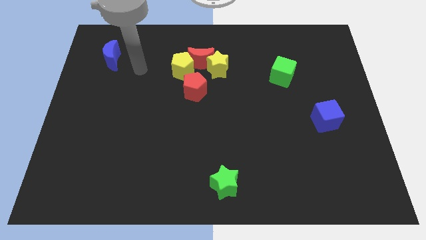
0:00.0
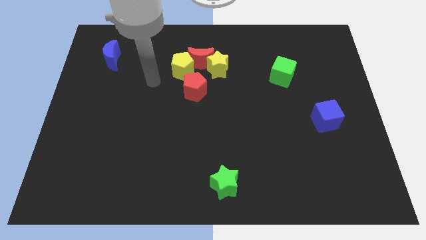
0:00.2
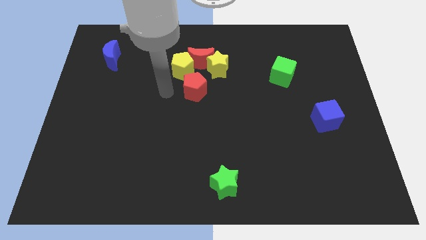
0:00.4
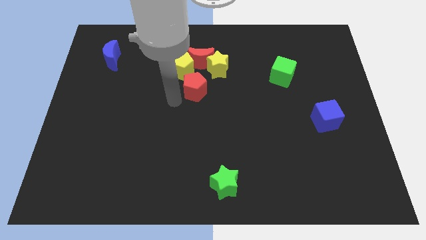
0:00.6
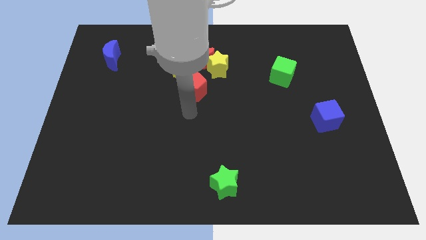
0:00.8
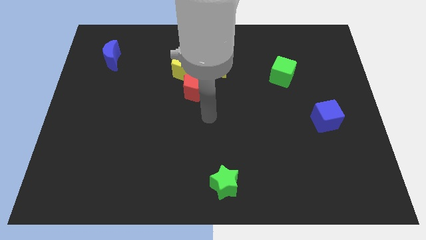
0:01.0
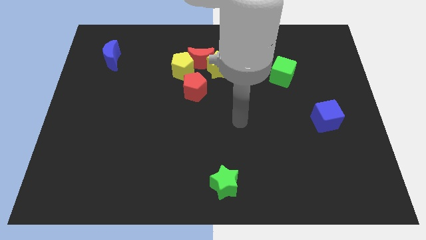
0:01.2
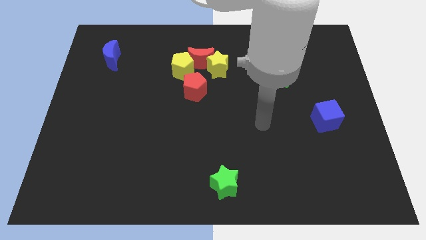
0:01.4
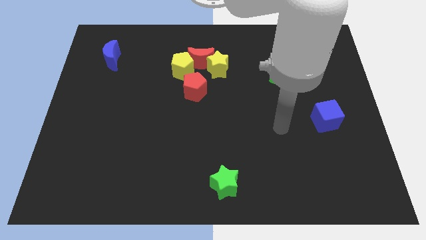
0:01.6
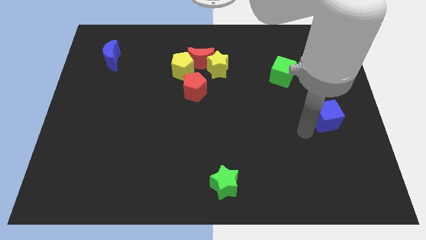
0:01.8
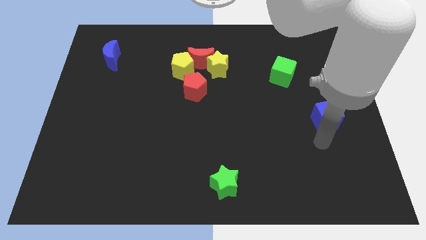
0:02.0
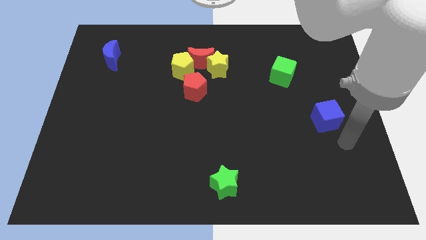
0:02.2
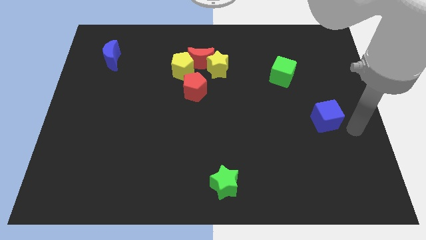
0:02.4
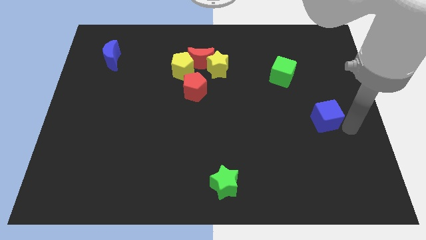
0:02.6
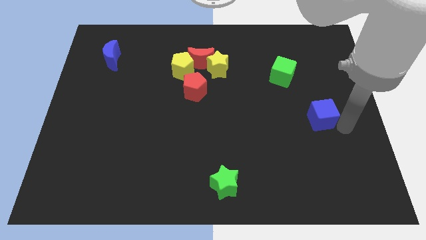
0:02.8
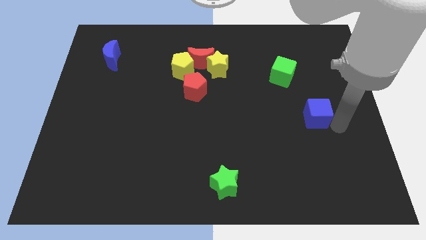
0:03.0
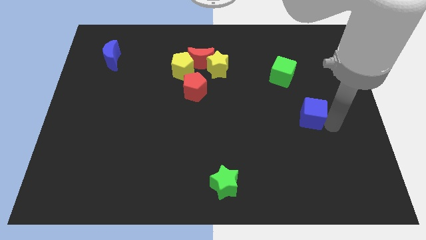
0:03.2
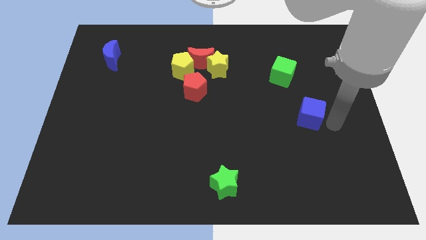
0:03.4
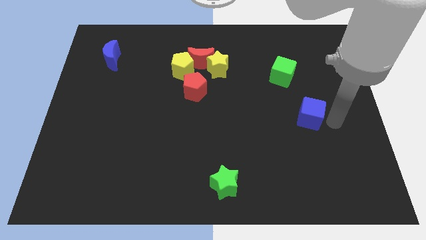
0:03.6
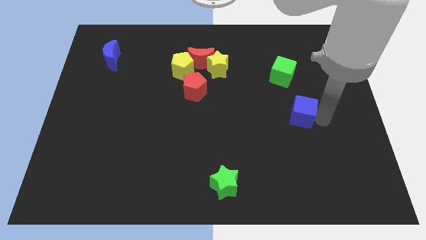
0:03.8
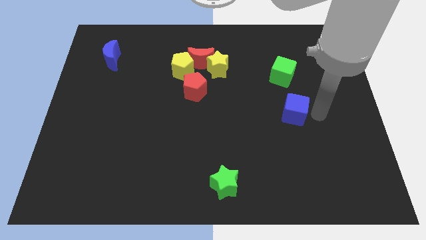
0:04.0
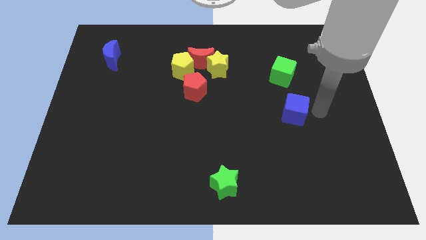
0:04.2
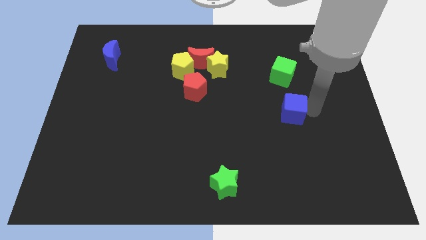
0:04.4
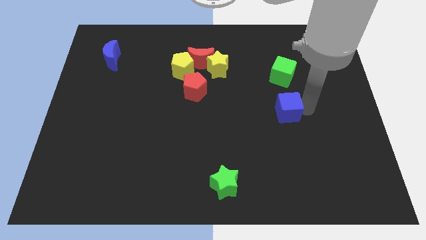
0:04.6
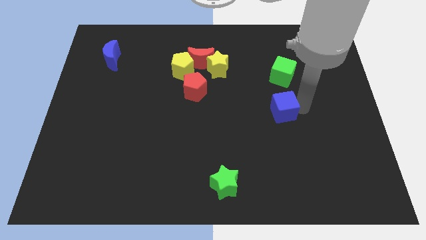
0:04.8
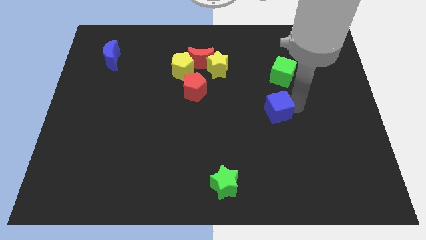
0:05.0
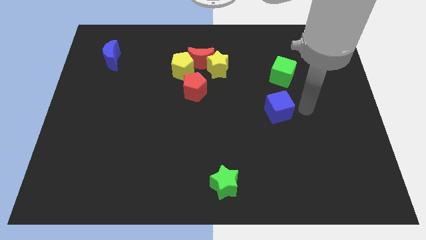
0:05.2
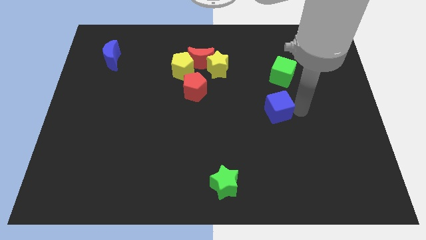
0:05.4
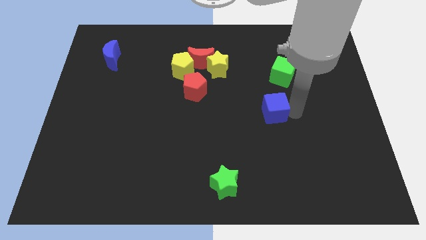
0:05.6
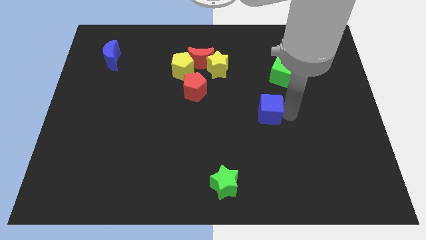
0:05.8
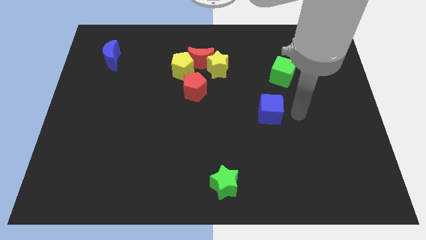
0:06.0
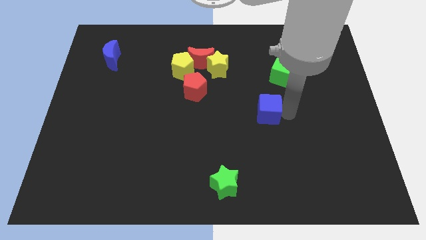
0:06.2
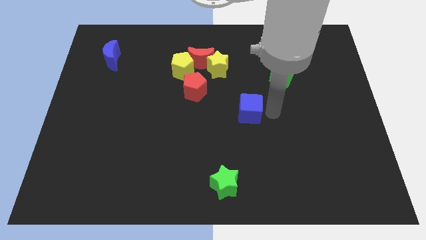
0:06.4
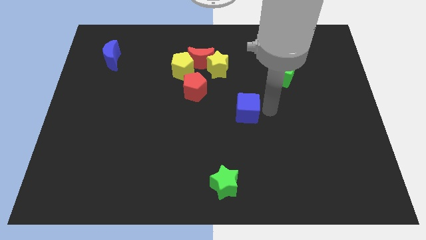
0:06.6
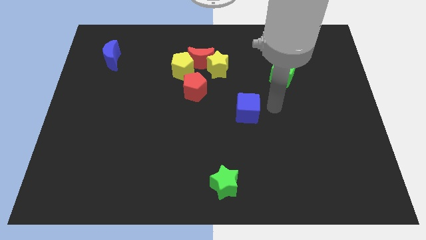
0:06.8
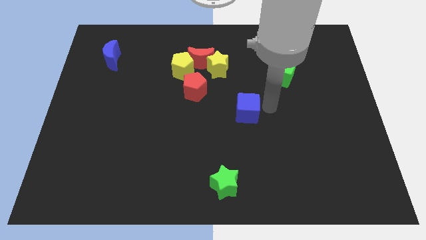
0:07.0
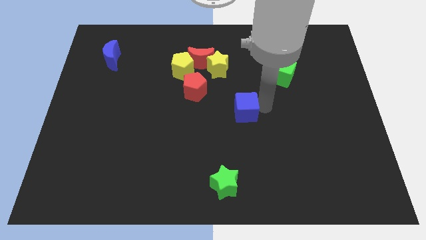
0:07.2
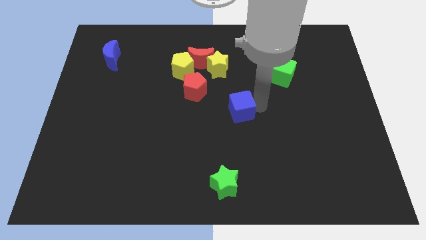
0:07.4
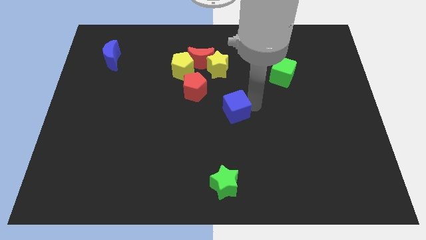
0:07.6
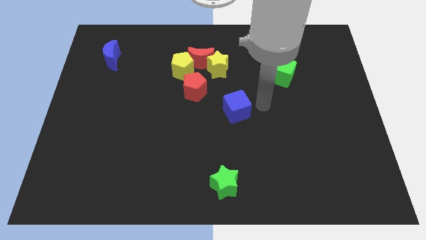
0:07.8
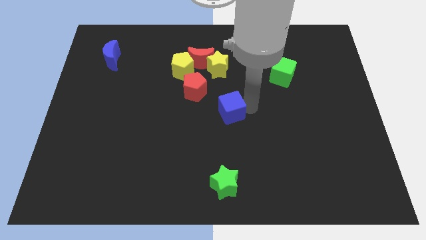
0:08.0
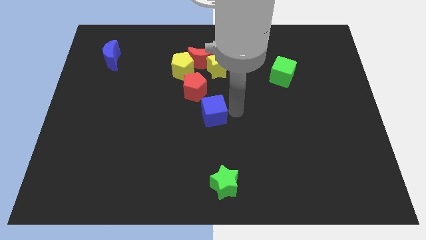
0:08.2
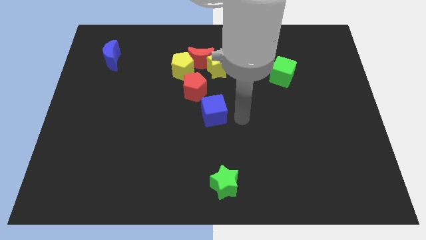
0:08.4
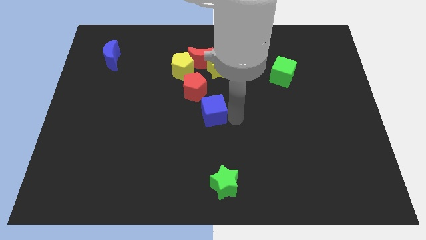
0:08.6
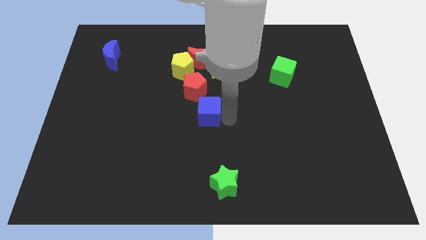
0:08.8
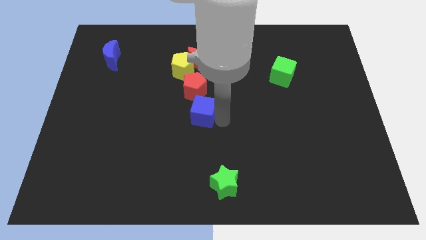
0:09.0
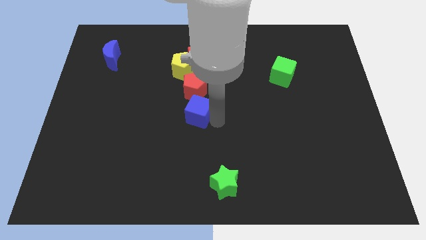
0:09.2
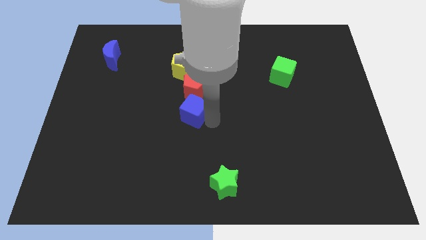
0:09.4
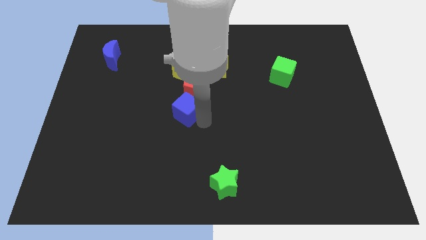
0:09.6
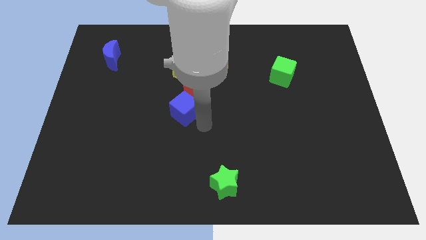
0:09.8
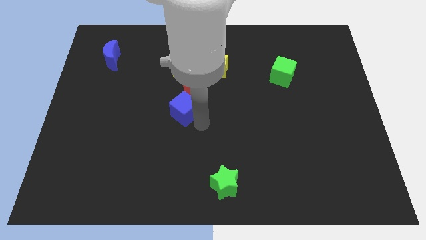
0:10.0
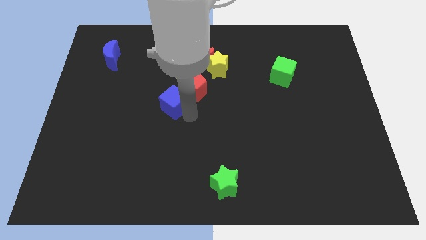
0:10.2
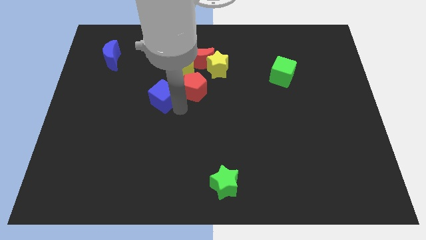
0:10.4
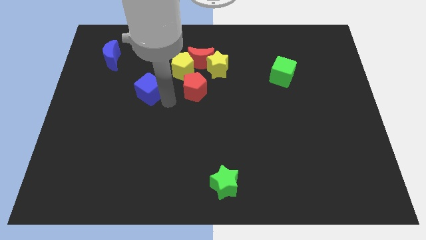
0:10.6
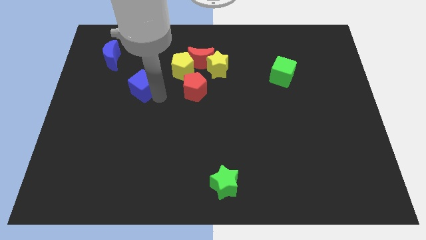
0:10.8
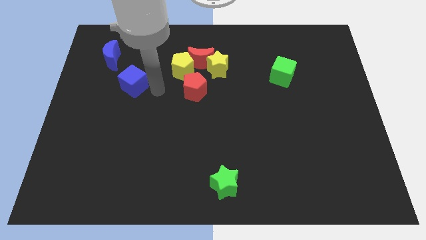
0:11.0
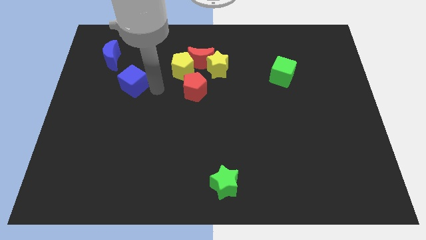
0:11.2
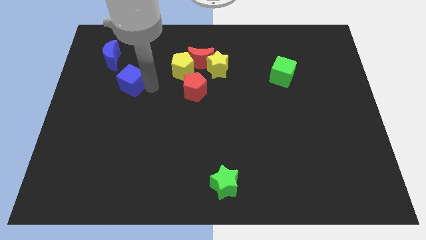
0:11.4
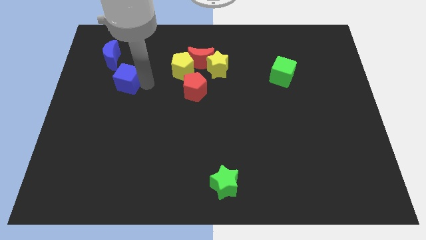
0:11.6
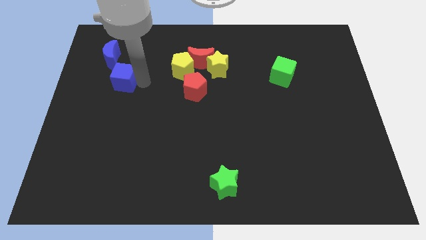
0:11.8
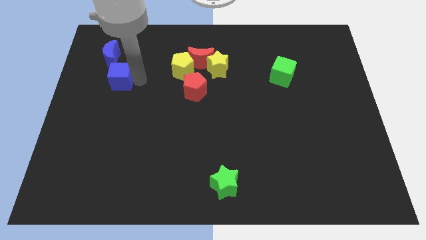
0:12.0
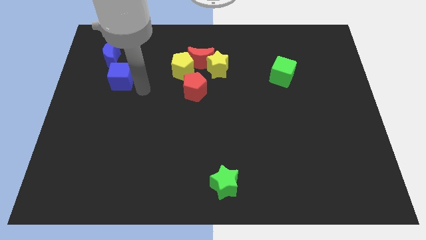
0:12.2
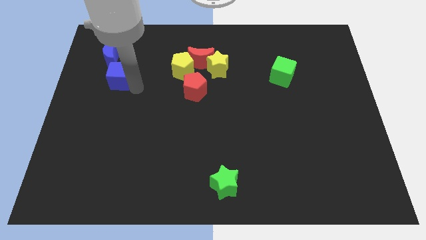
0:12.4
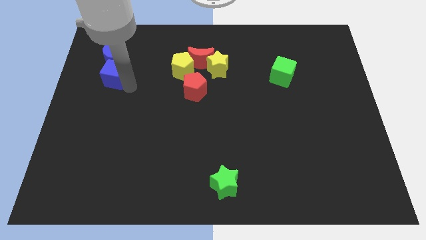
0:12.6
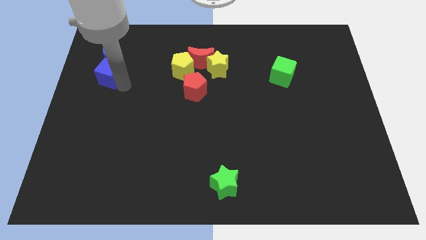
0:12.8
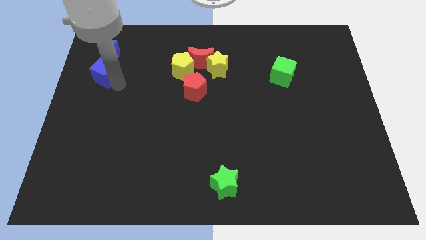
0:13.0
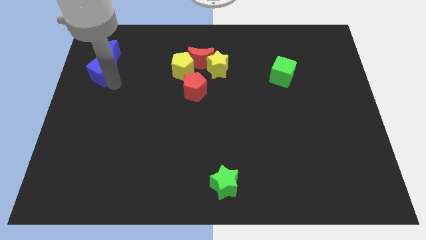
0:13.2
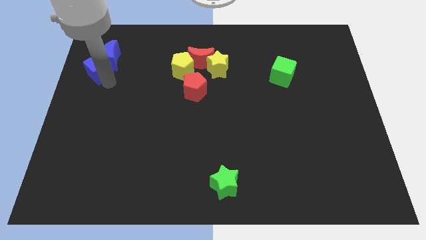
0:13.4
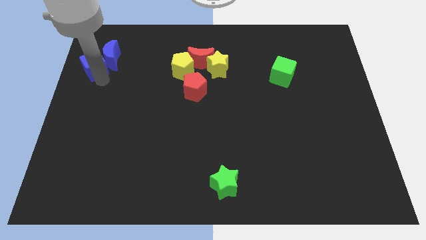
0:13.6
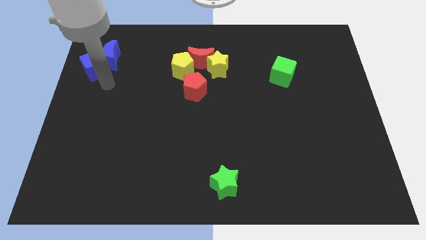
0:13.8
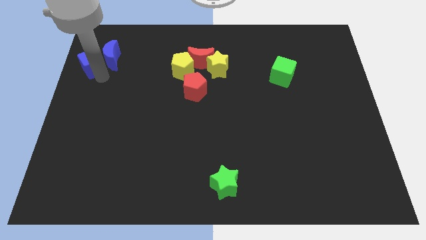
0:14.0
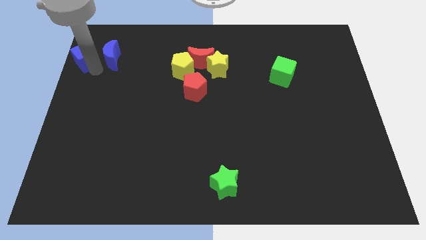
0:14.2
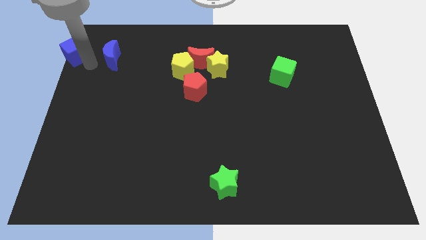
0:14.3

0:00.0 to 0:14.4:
put the blue cube to the top left
